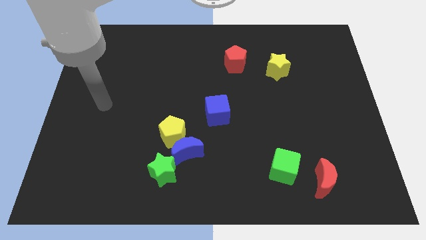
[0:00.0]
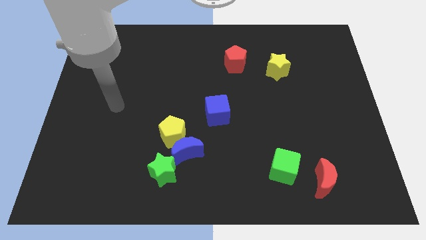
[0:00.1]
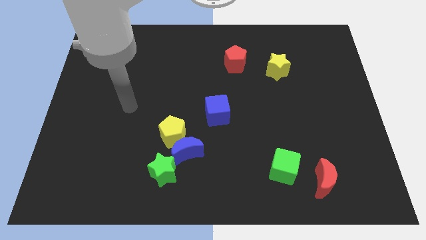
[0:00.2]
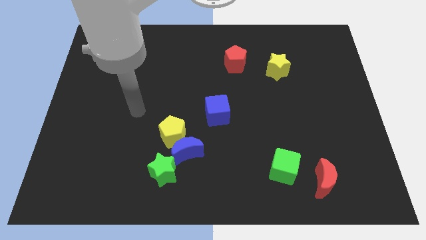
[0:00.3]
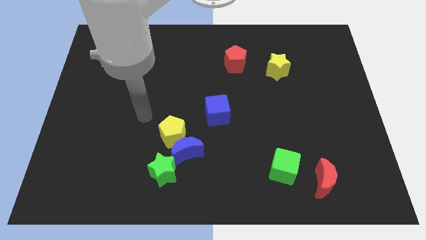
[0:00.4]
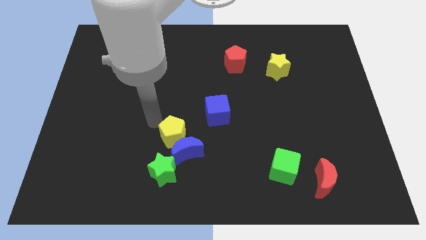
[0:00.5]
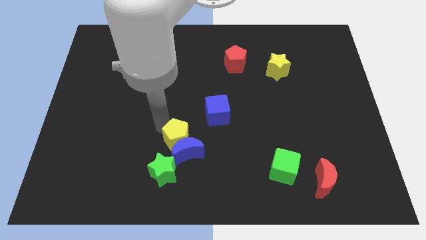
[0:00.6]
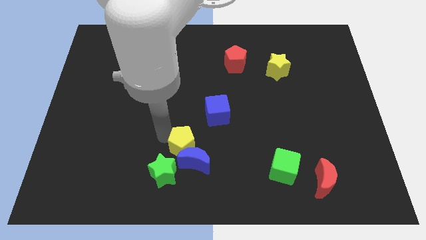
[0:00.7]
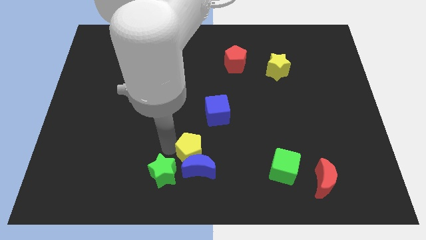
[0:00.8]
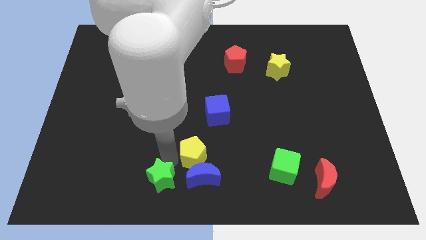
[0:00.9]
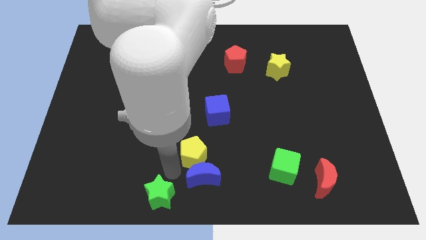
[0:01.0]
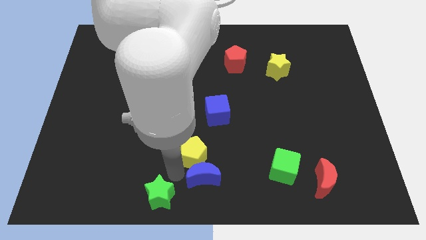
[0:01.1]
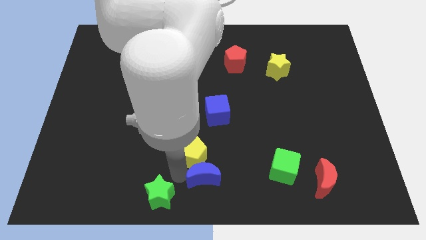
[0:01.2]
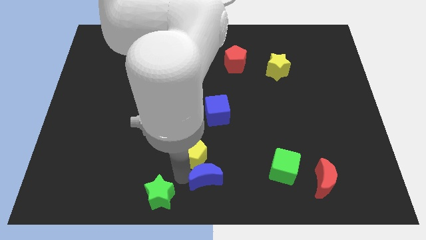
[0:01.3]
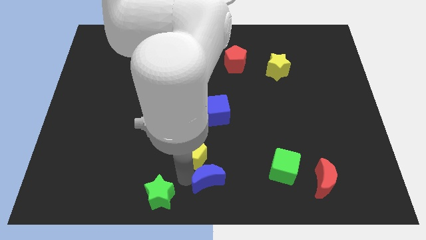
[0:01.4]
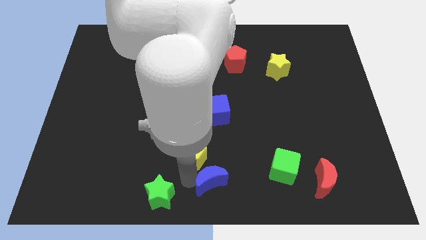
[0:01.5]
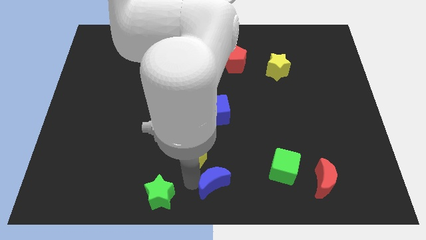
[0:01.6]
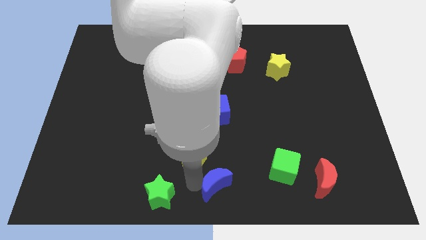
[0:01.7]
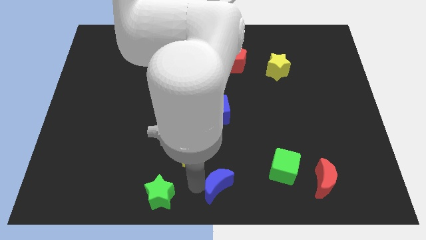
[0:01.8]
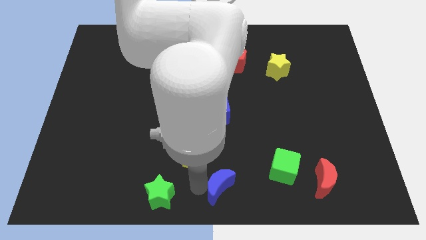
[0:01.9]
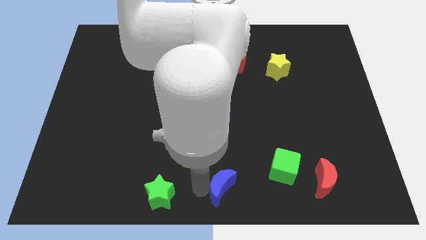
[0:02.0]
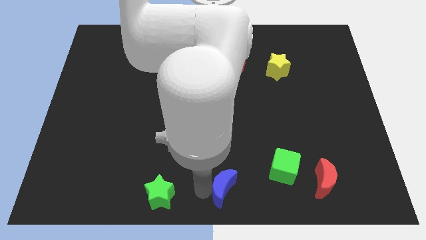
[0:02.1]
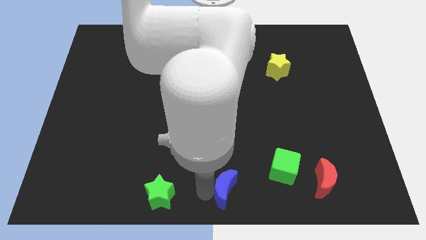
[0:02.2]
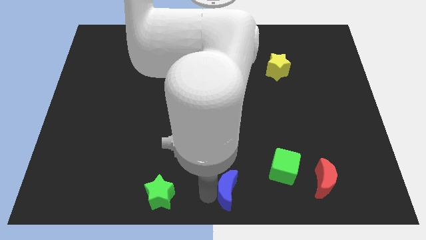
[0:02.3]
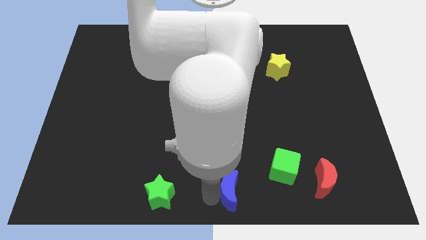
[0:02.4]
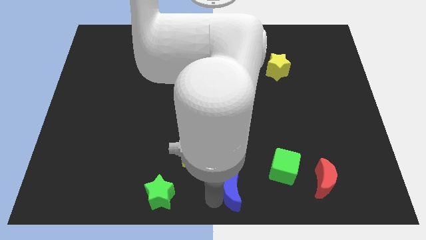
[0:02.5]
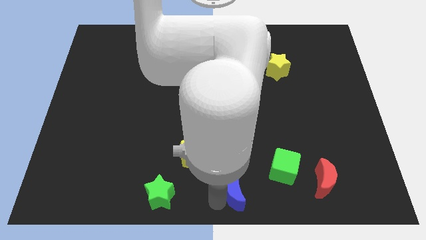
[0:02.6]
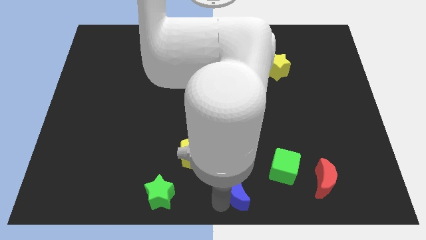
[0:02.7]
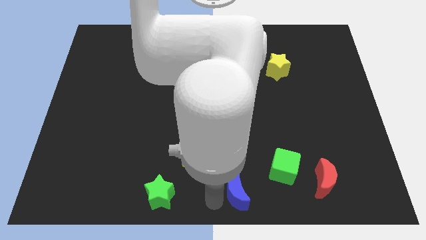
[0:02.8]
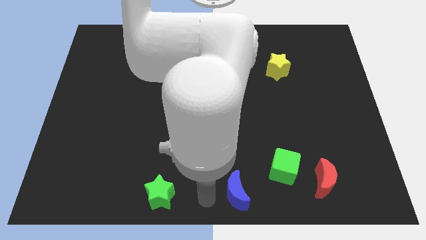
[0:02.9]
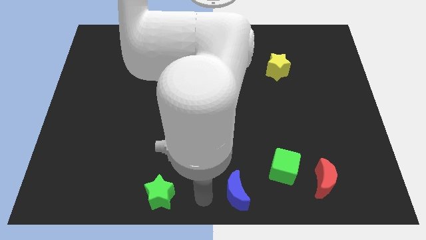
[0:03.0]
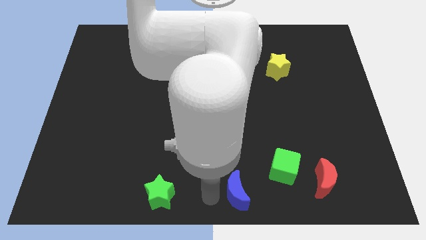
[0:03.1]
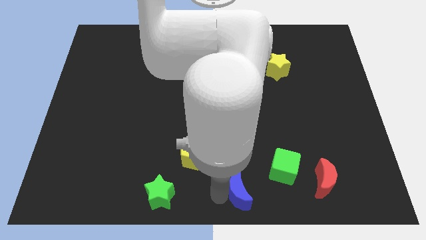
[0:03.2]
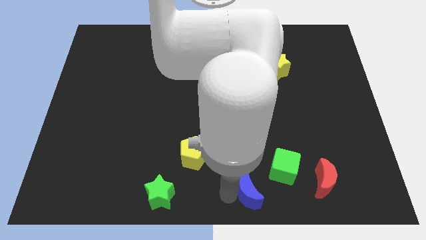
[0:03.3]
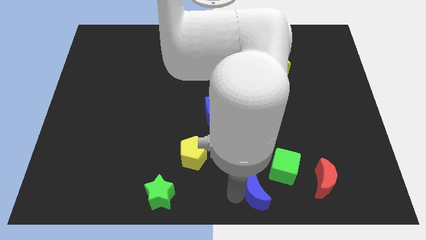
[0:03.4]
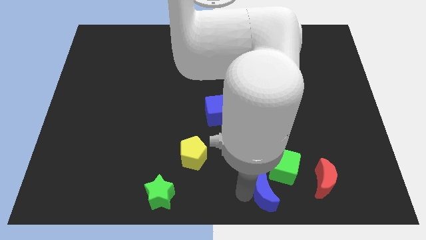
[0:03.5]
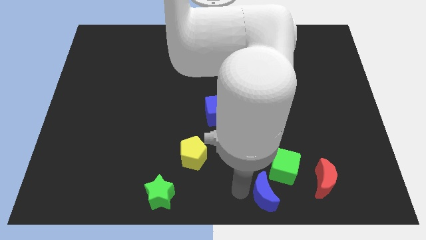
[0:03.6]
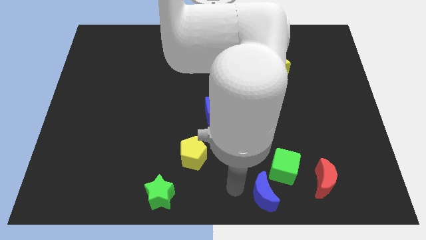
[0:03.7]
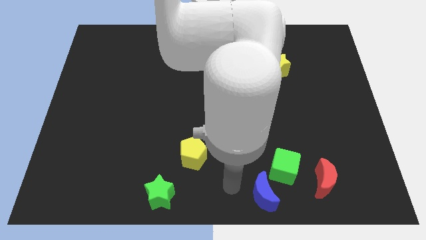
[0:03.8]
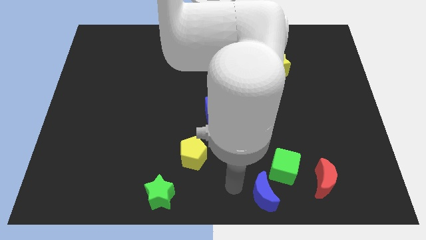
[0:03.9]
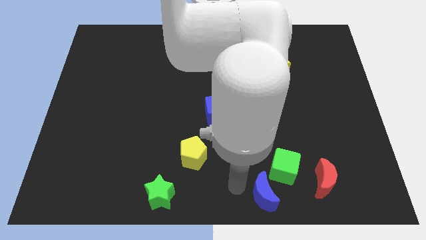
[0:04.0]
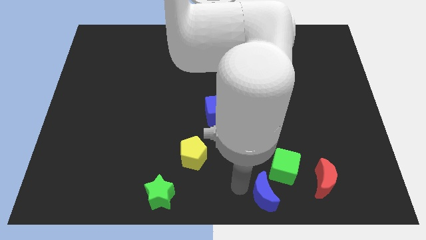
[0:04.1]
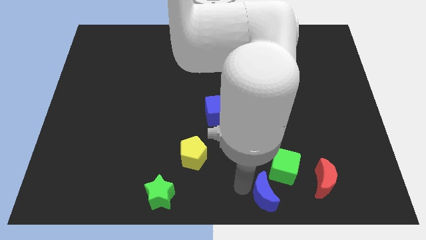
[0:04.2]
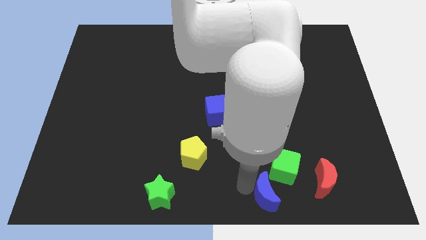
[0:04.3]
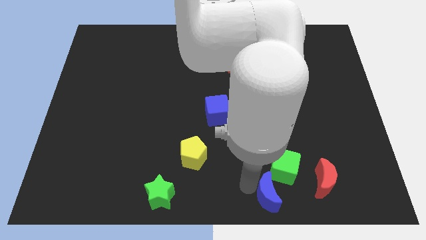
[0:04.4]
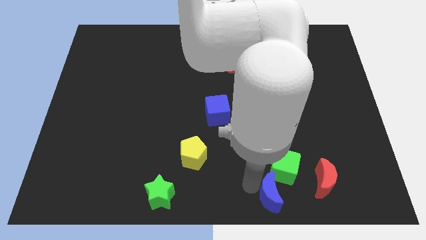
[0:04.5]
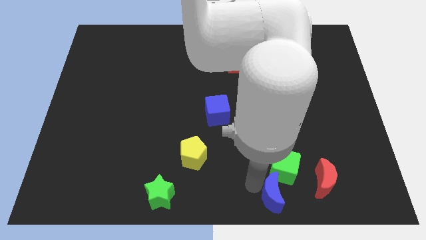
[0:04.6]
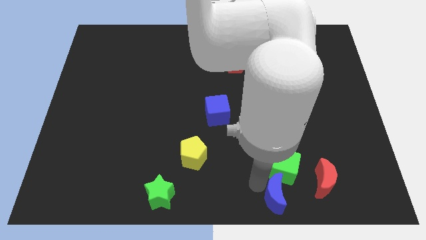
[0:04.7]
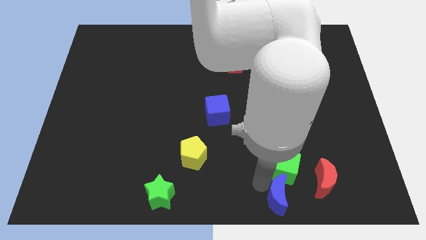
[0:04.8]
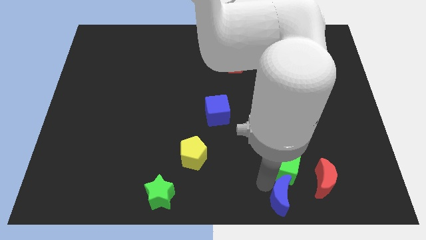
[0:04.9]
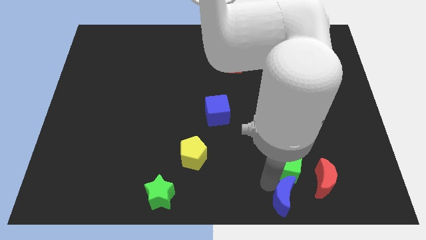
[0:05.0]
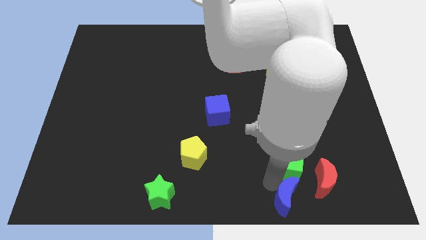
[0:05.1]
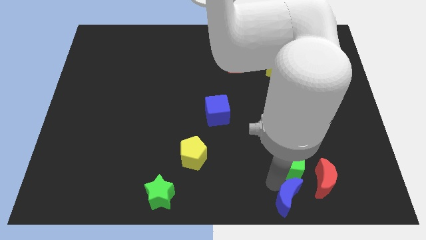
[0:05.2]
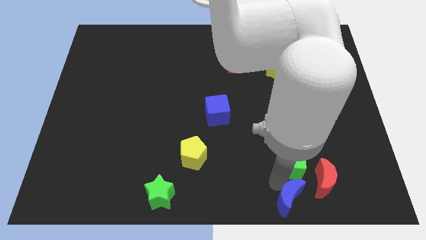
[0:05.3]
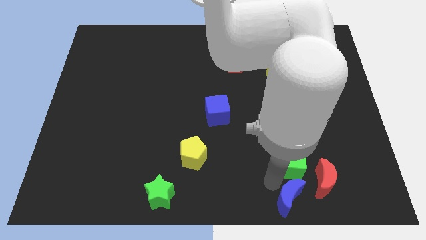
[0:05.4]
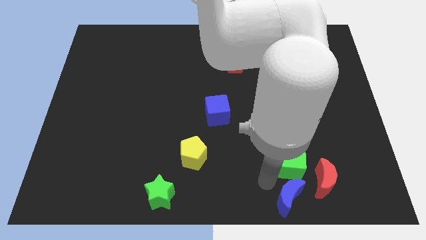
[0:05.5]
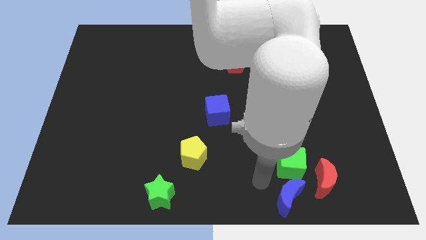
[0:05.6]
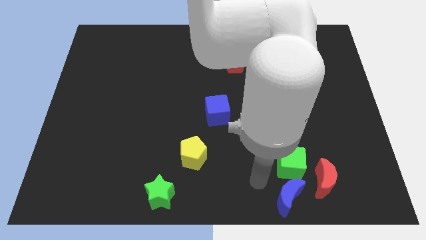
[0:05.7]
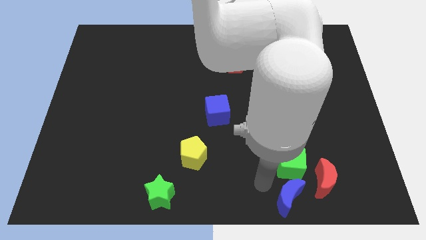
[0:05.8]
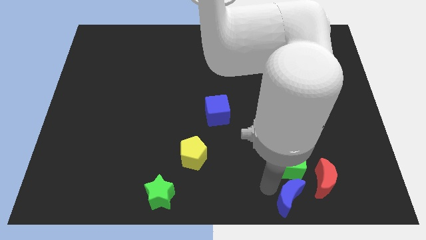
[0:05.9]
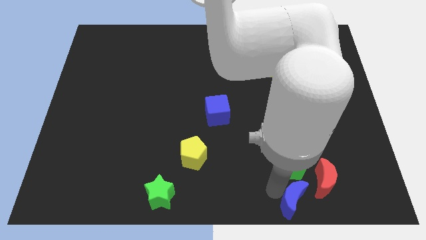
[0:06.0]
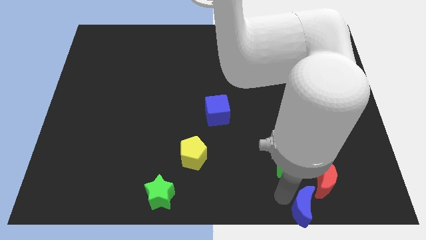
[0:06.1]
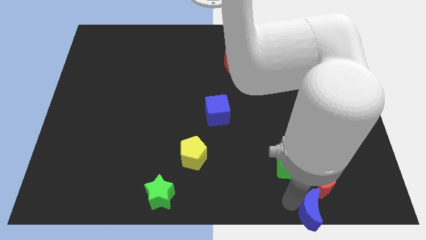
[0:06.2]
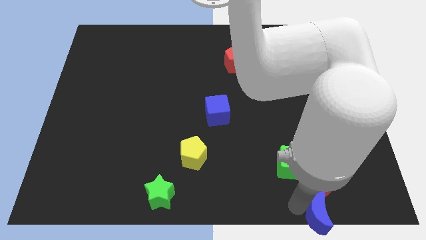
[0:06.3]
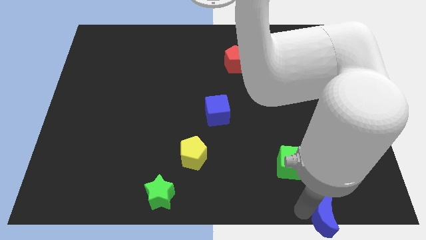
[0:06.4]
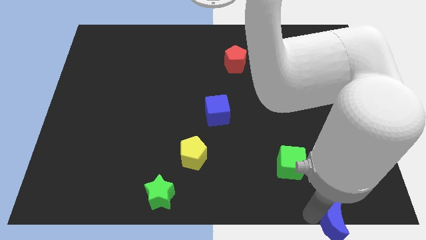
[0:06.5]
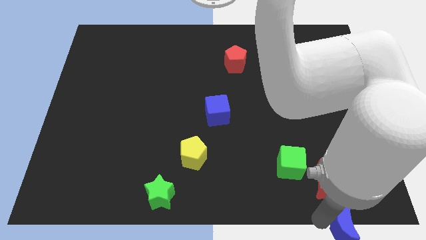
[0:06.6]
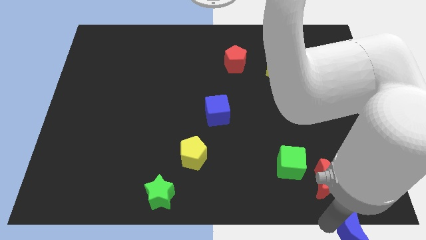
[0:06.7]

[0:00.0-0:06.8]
put the blue moon to the bottom right

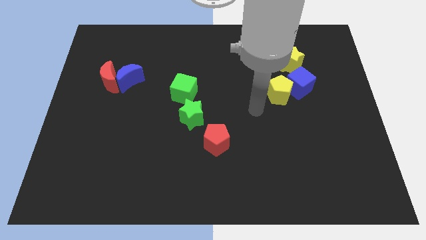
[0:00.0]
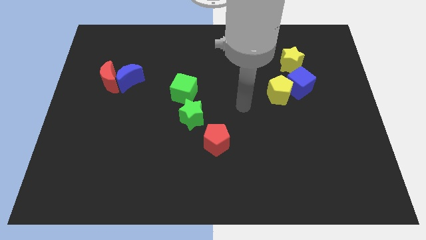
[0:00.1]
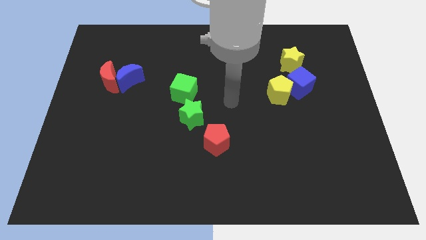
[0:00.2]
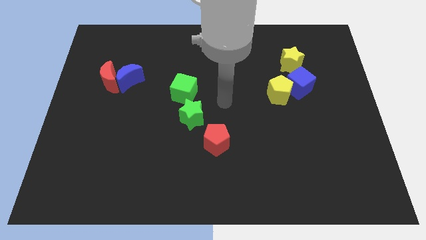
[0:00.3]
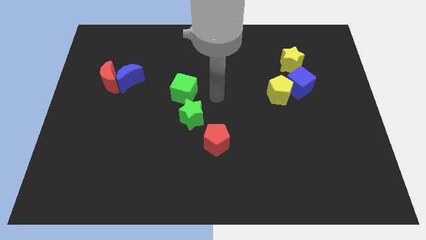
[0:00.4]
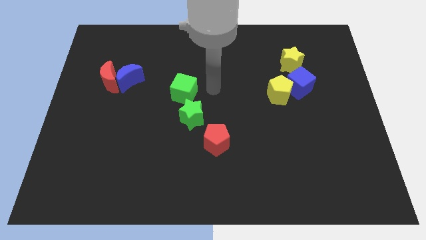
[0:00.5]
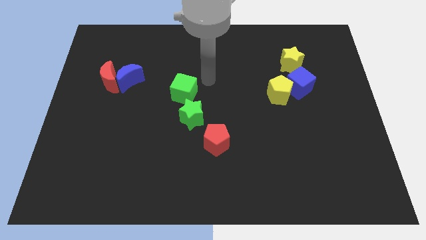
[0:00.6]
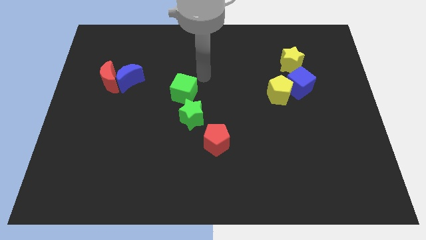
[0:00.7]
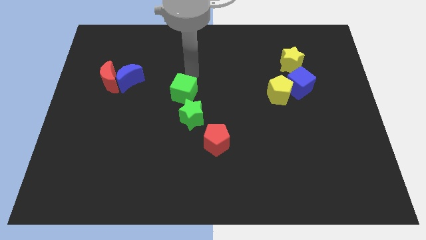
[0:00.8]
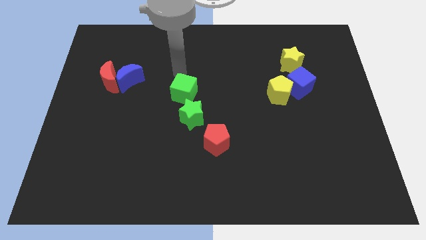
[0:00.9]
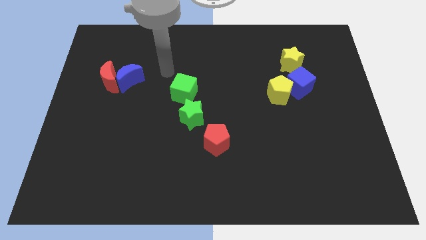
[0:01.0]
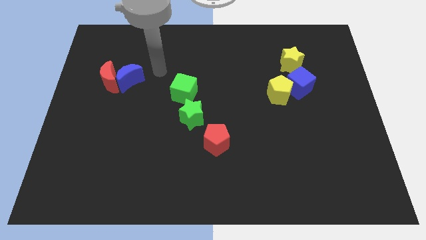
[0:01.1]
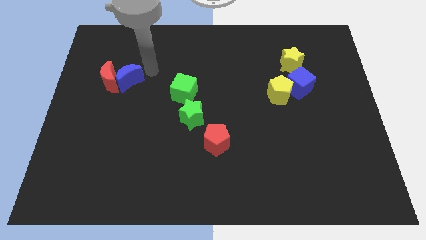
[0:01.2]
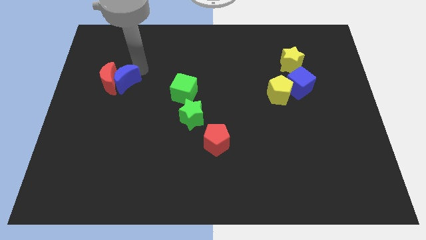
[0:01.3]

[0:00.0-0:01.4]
put the red moon to the left side of the board
